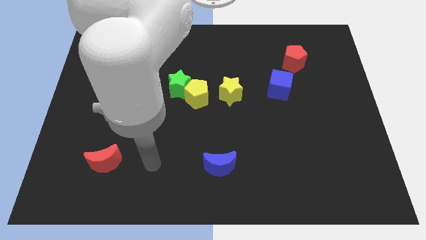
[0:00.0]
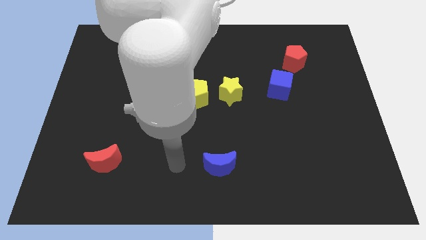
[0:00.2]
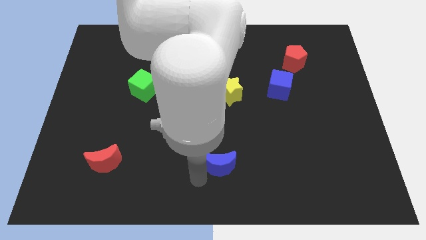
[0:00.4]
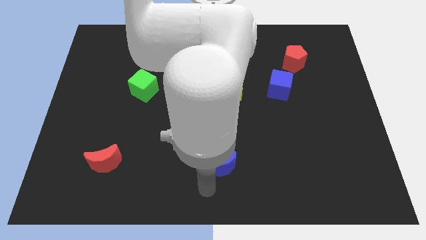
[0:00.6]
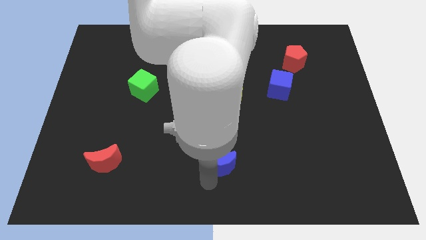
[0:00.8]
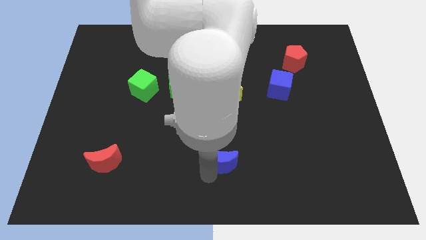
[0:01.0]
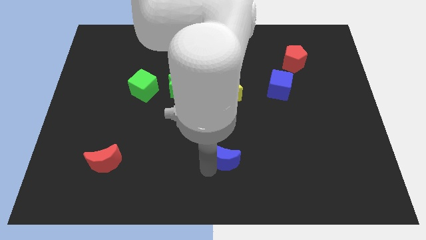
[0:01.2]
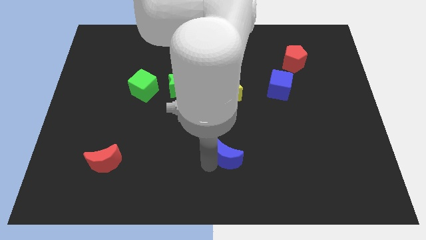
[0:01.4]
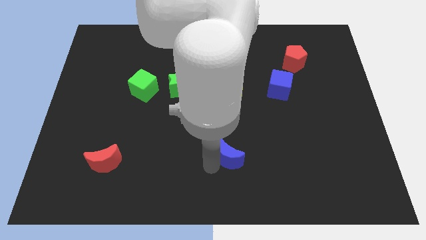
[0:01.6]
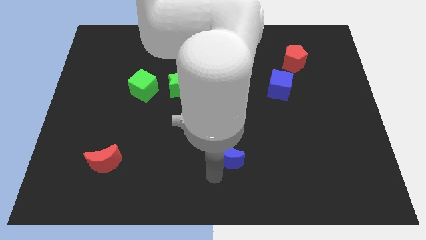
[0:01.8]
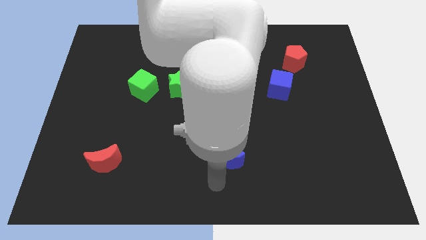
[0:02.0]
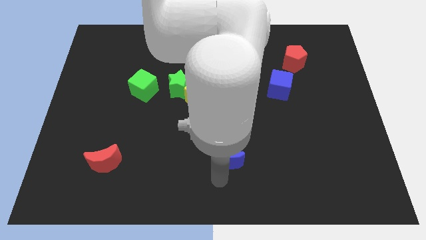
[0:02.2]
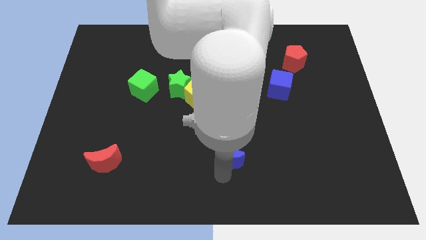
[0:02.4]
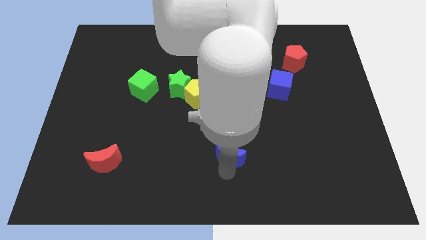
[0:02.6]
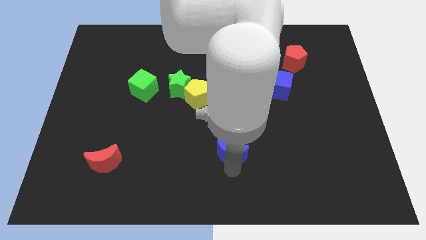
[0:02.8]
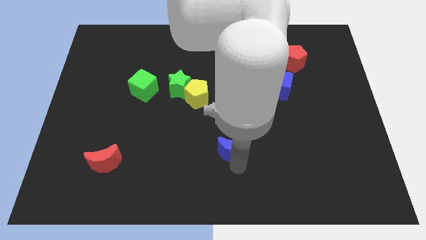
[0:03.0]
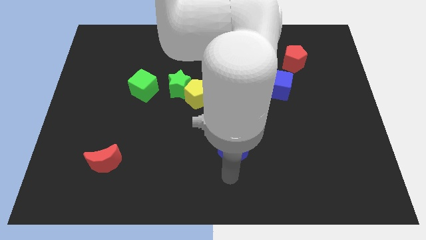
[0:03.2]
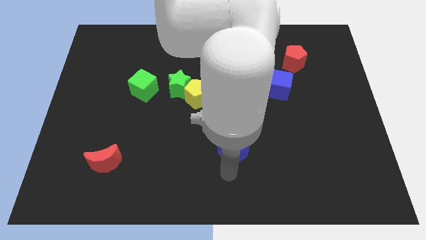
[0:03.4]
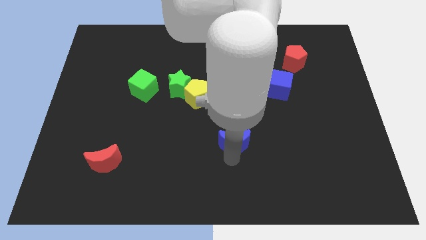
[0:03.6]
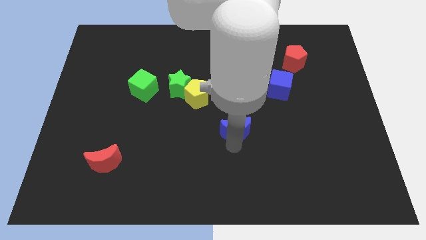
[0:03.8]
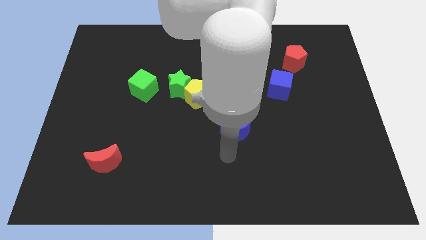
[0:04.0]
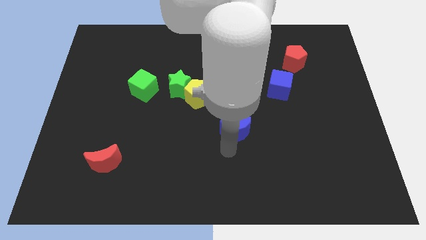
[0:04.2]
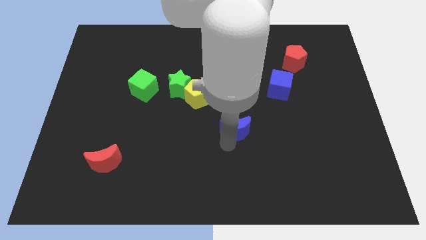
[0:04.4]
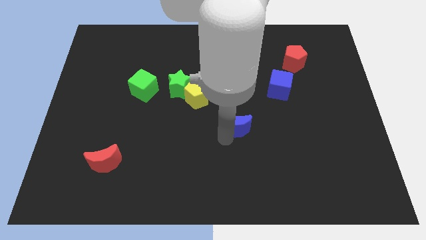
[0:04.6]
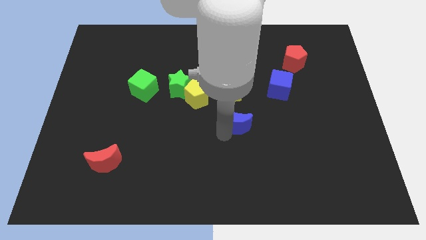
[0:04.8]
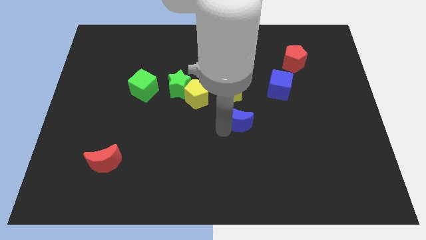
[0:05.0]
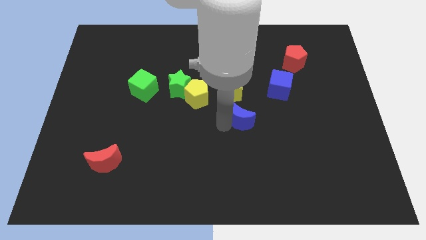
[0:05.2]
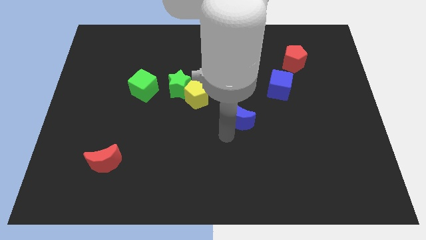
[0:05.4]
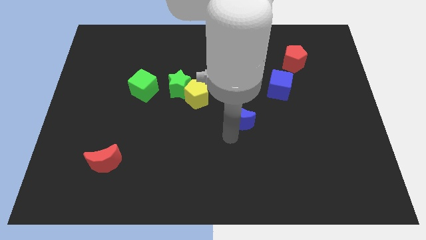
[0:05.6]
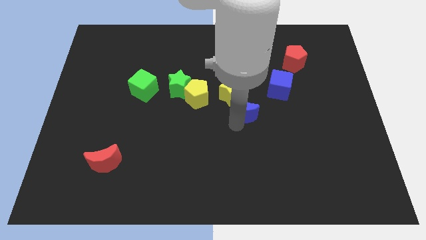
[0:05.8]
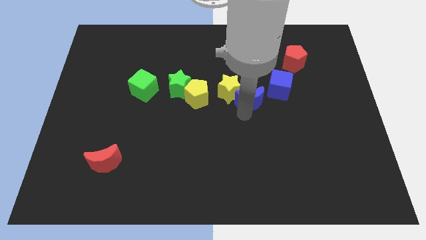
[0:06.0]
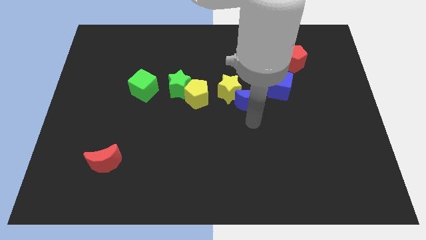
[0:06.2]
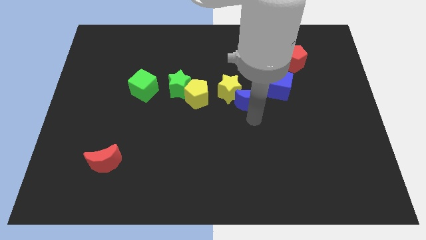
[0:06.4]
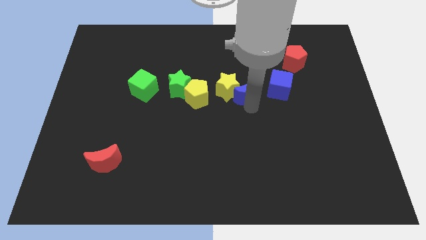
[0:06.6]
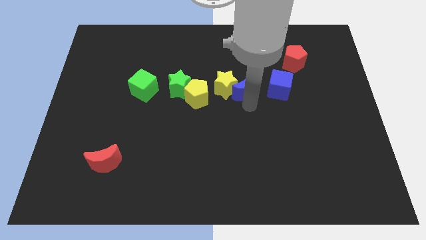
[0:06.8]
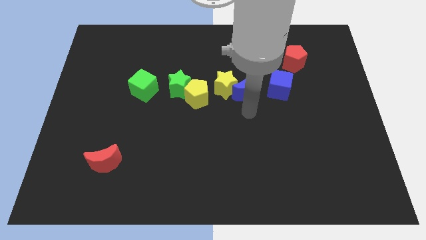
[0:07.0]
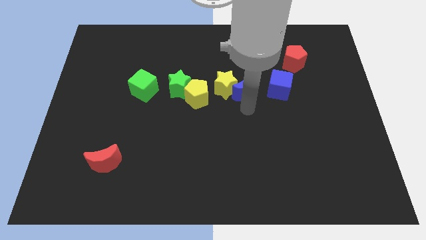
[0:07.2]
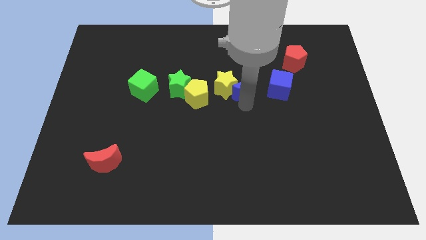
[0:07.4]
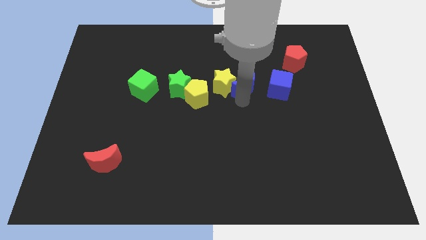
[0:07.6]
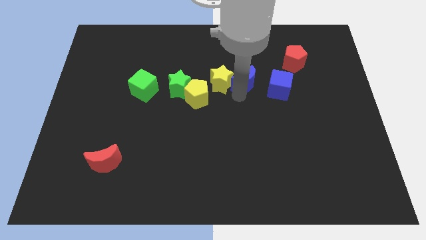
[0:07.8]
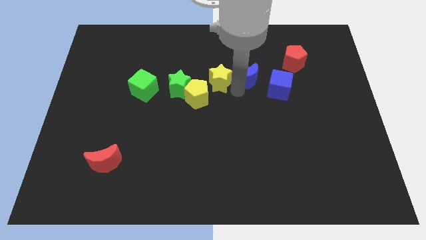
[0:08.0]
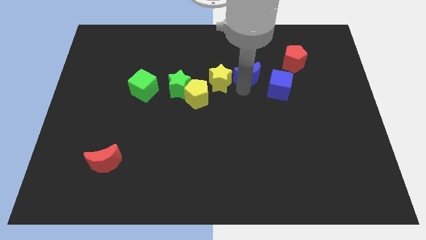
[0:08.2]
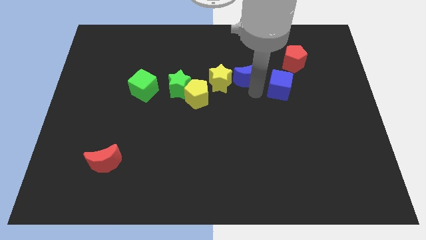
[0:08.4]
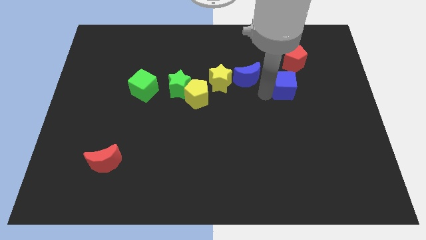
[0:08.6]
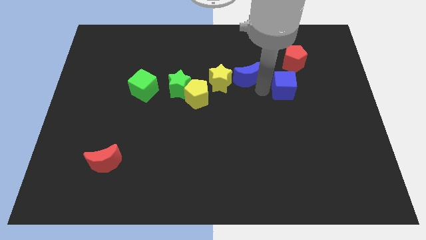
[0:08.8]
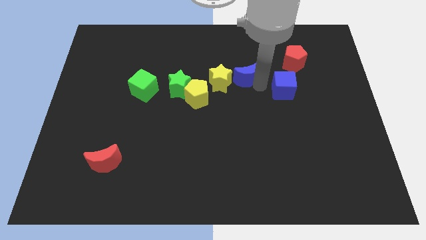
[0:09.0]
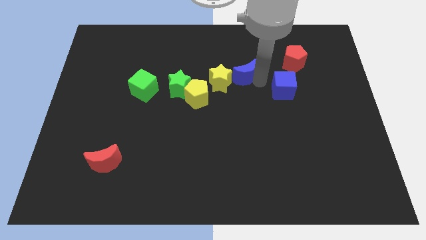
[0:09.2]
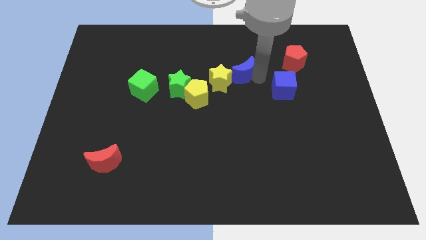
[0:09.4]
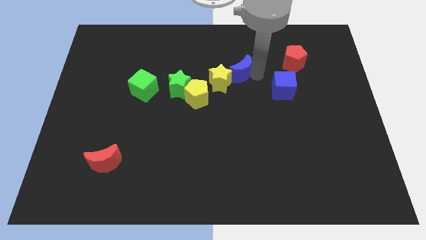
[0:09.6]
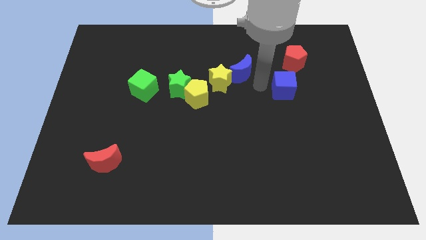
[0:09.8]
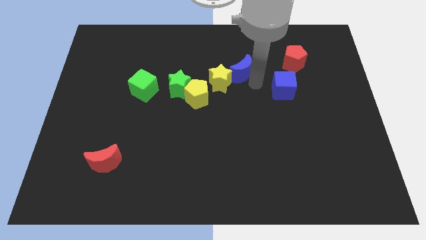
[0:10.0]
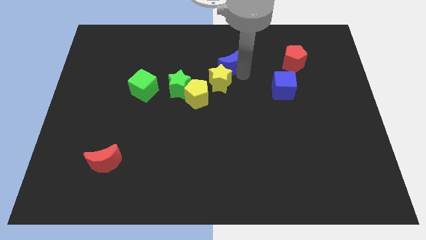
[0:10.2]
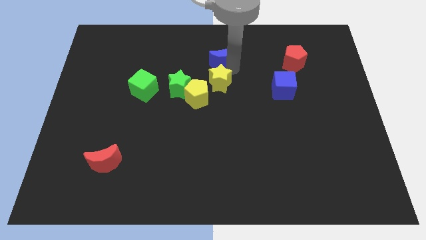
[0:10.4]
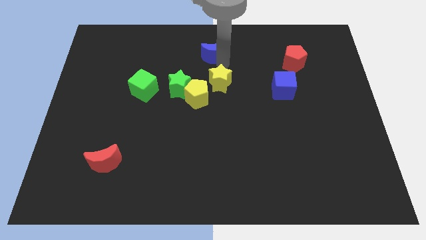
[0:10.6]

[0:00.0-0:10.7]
slide the blue moon to the towards your base

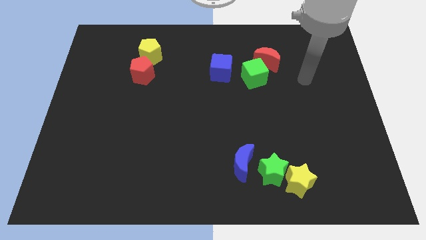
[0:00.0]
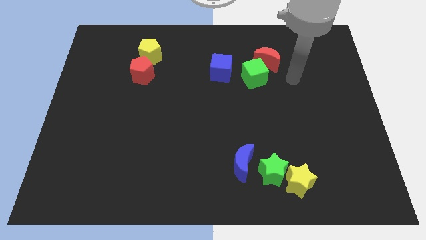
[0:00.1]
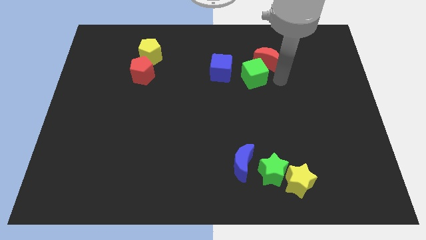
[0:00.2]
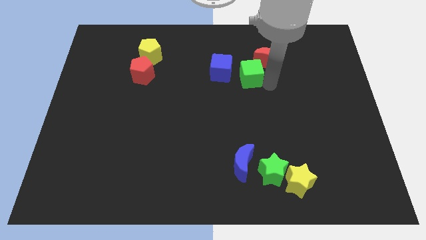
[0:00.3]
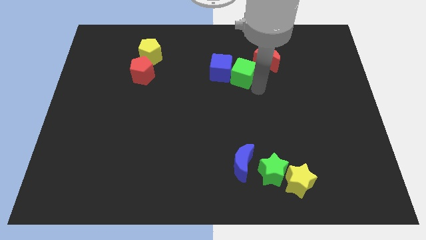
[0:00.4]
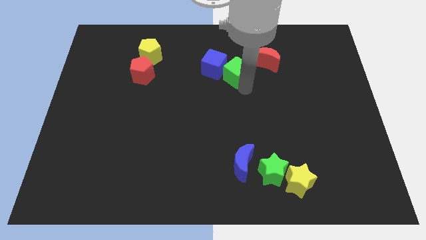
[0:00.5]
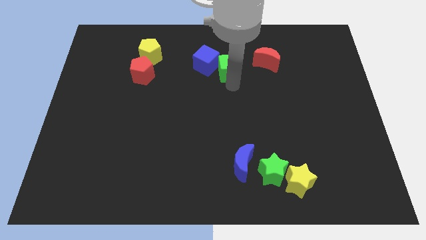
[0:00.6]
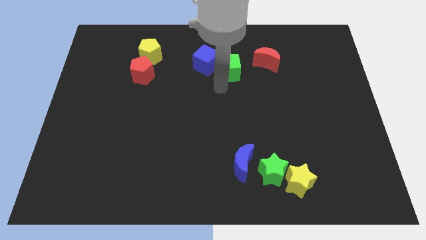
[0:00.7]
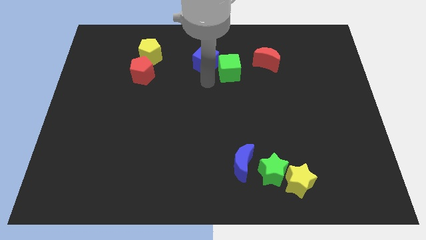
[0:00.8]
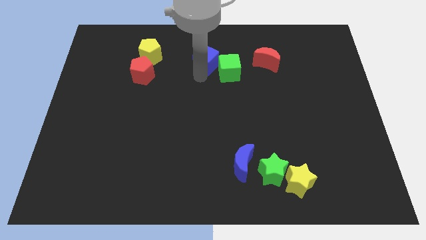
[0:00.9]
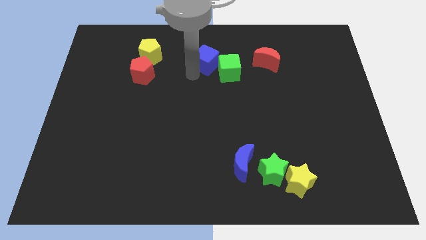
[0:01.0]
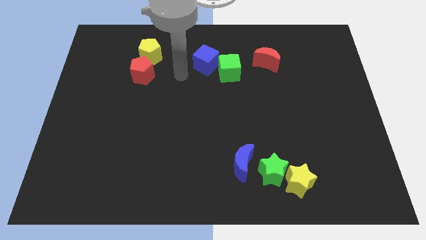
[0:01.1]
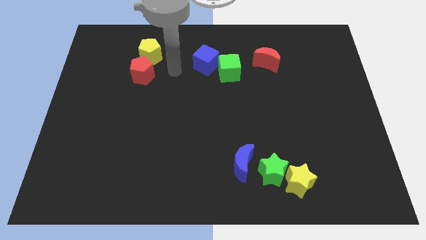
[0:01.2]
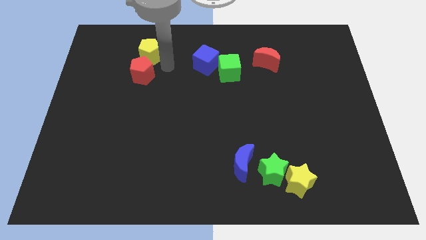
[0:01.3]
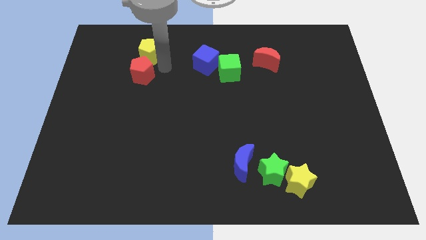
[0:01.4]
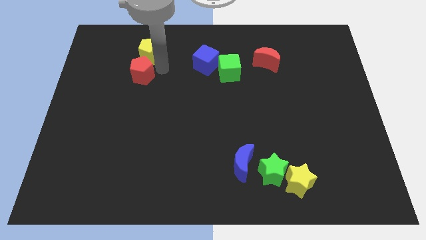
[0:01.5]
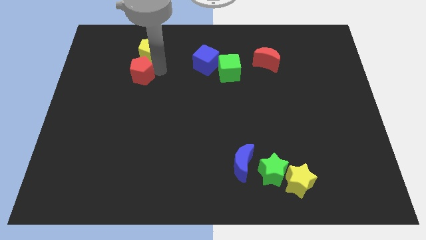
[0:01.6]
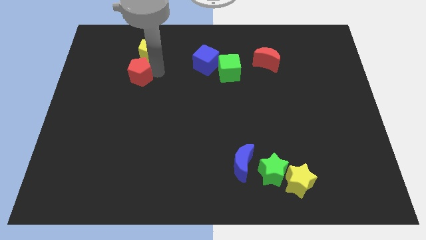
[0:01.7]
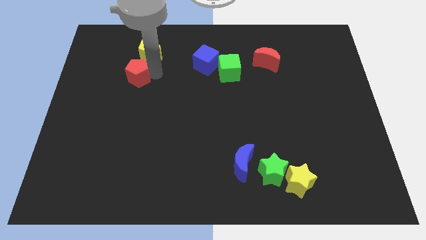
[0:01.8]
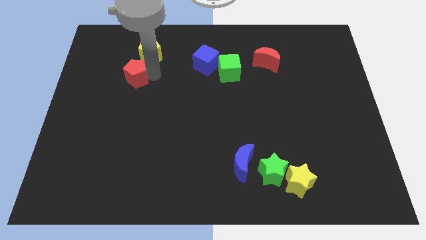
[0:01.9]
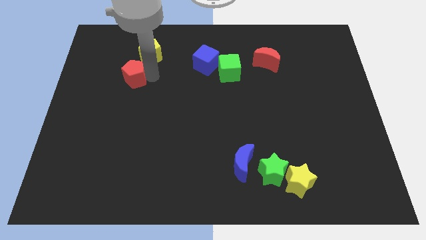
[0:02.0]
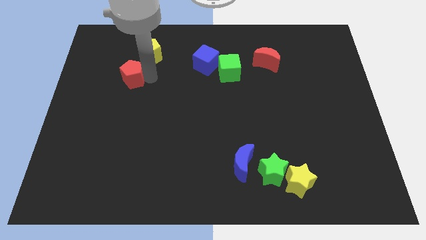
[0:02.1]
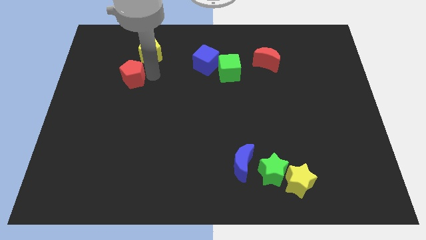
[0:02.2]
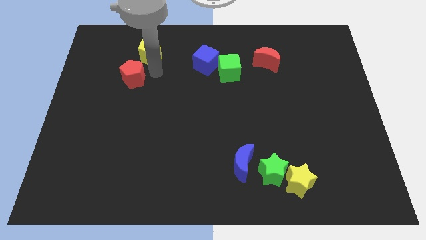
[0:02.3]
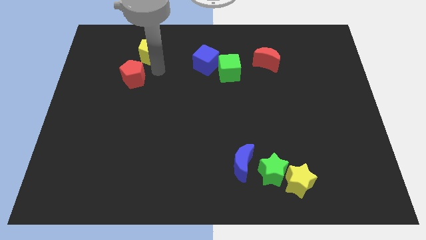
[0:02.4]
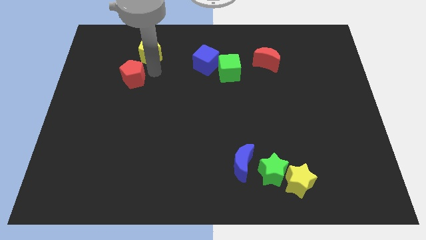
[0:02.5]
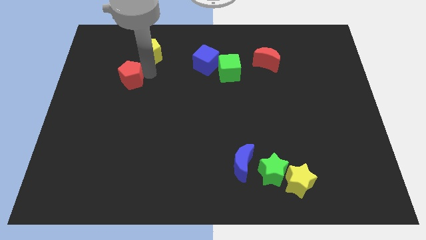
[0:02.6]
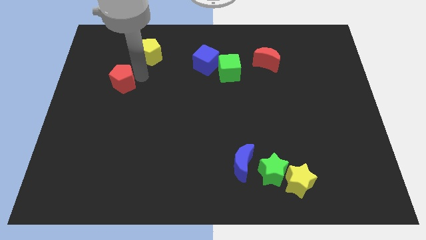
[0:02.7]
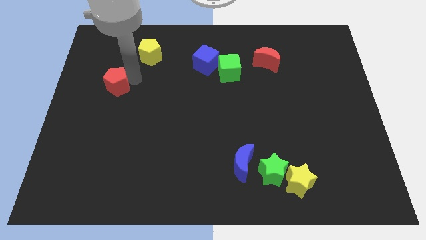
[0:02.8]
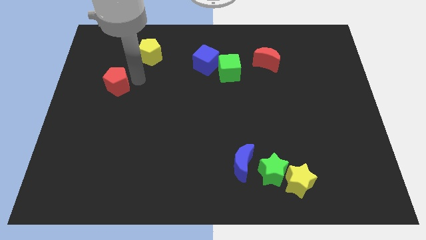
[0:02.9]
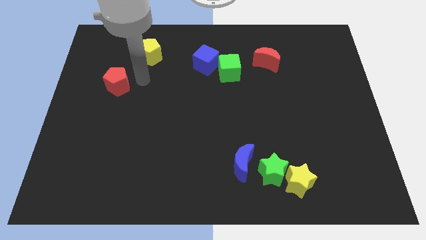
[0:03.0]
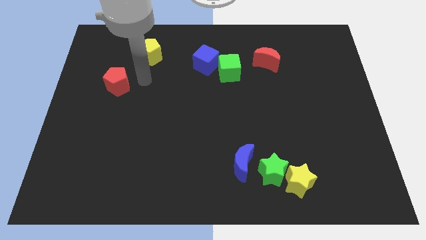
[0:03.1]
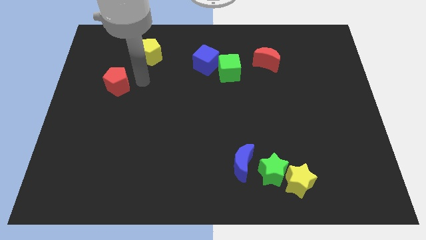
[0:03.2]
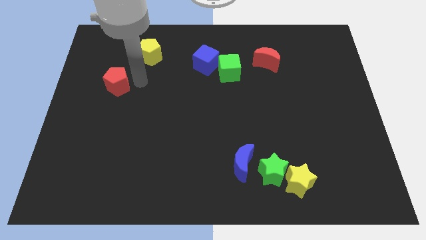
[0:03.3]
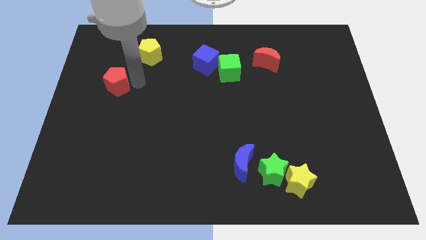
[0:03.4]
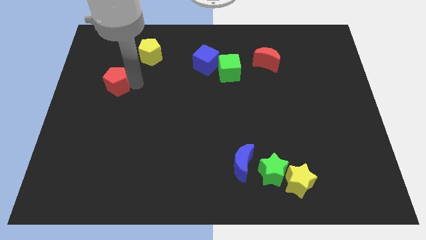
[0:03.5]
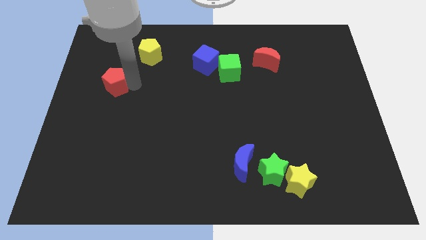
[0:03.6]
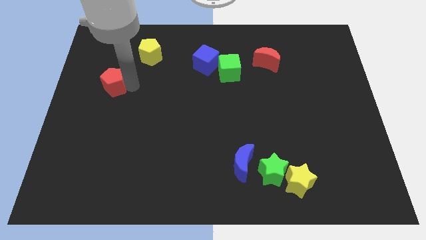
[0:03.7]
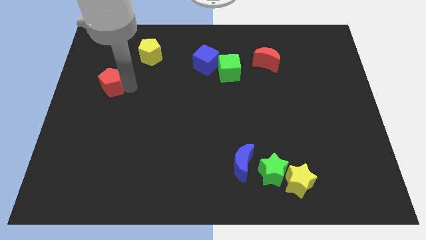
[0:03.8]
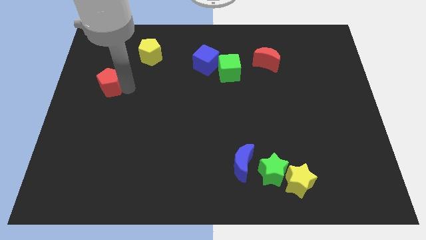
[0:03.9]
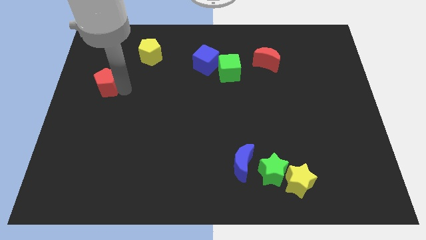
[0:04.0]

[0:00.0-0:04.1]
push the red pentagon to the left side
